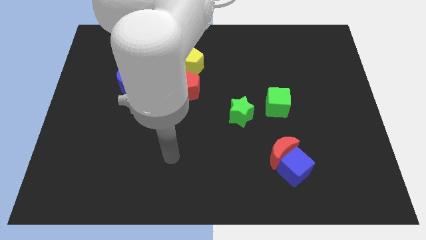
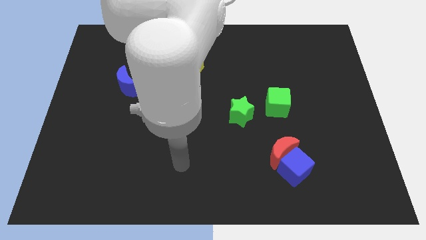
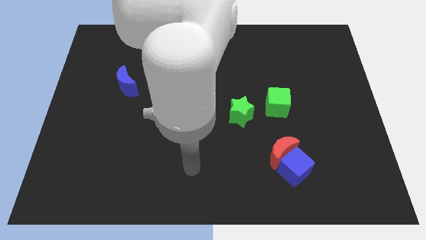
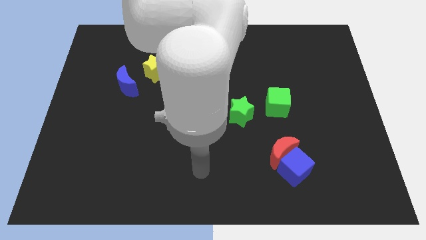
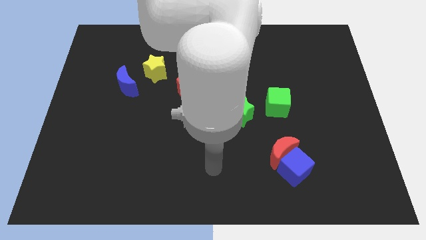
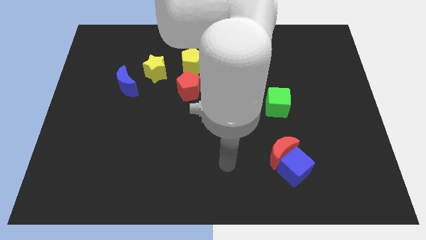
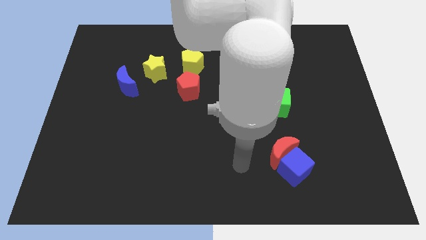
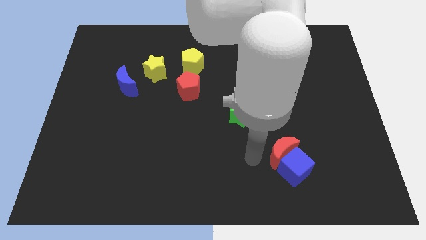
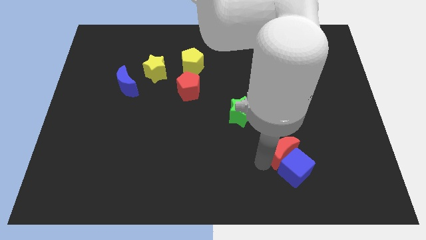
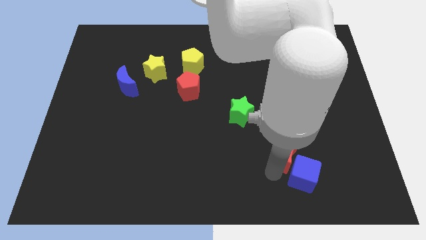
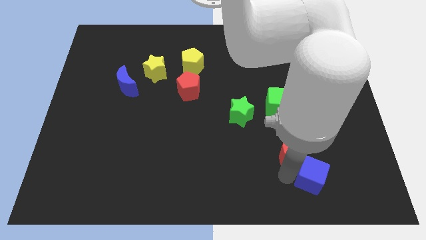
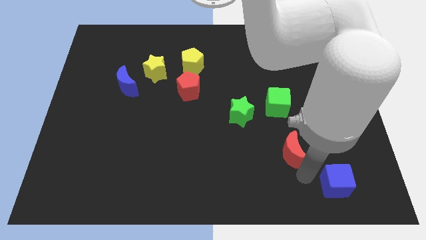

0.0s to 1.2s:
pull the red moon apart from the blue cube

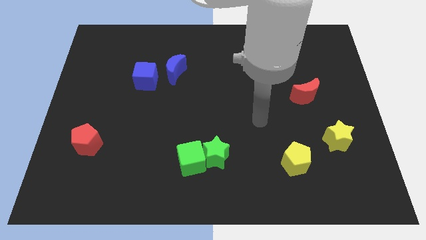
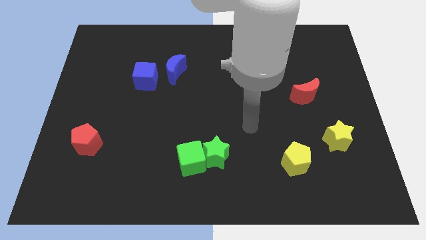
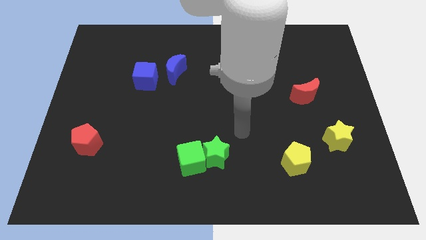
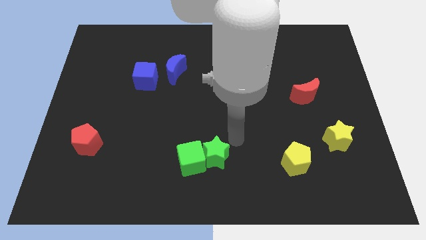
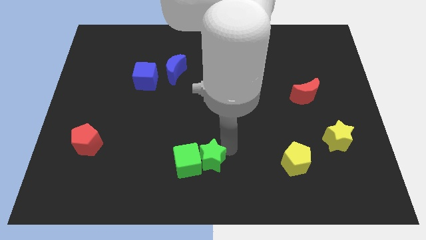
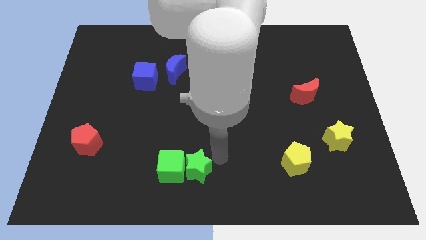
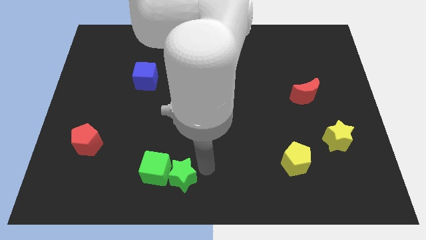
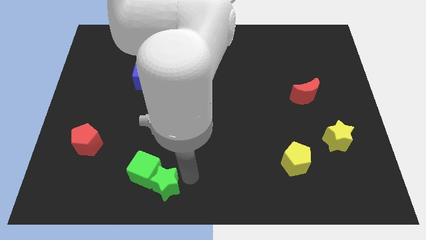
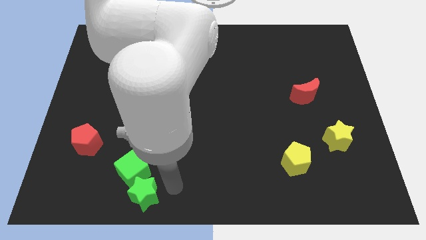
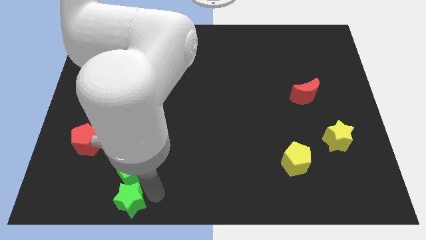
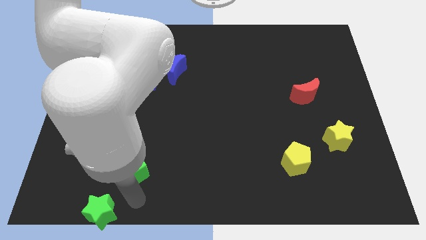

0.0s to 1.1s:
separate the green cube from the green star

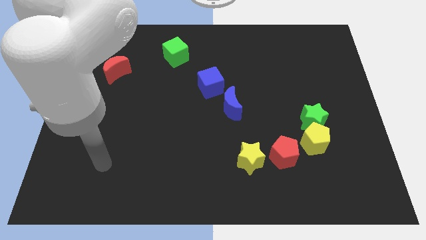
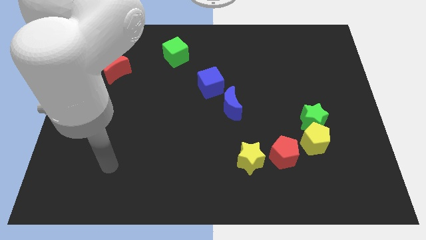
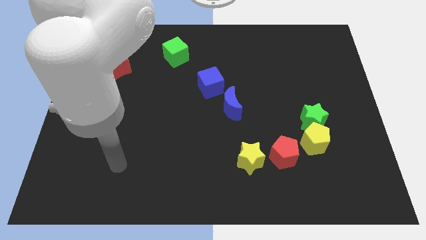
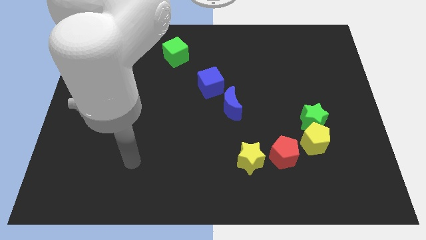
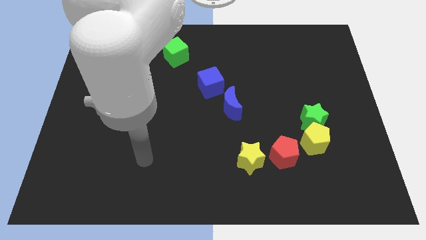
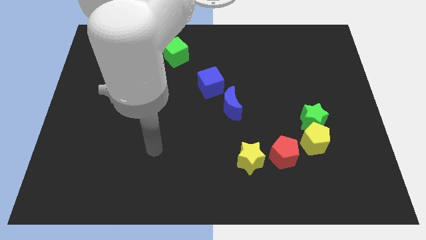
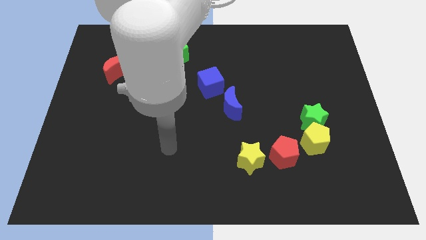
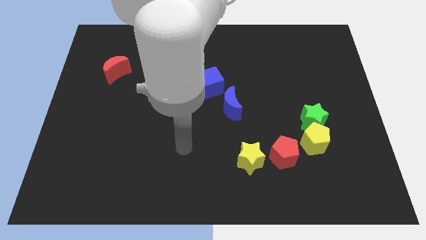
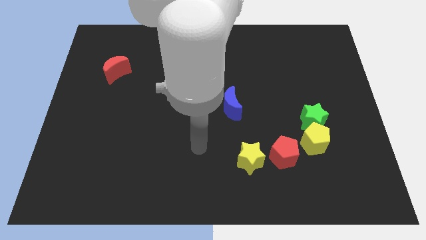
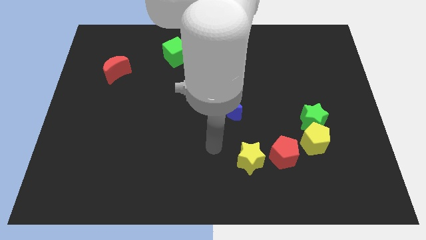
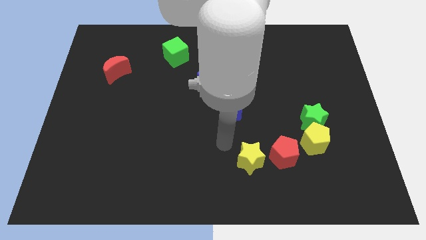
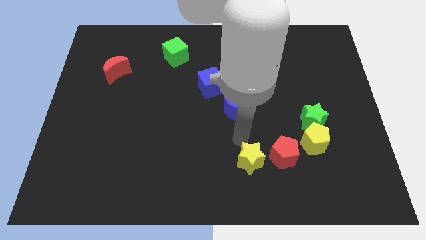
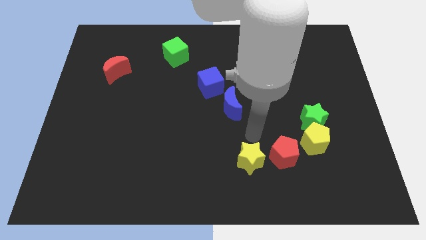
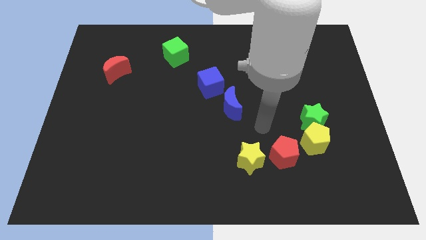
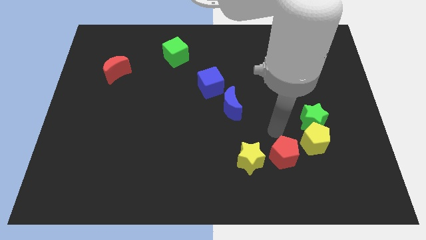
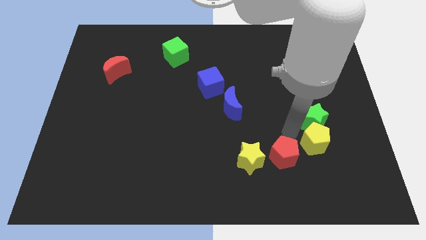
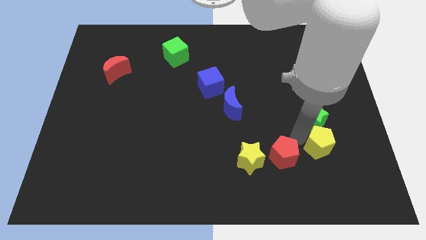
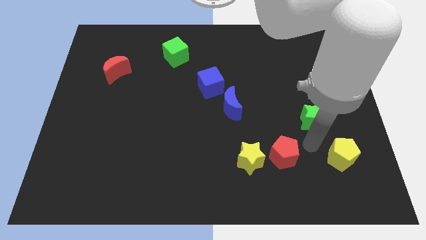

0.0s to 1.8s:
pull the green star apart from the yellow pentagon

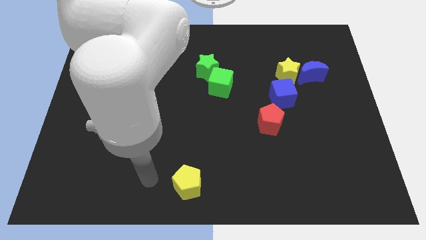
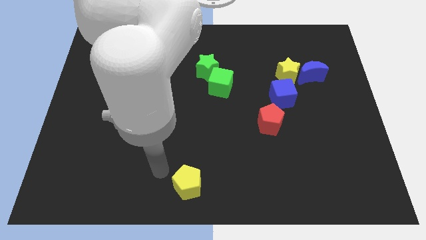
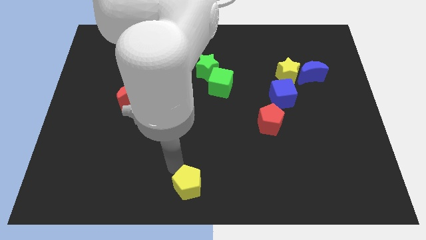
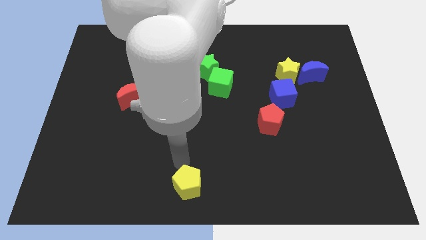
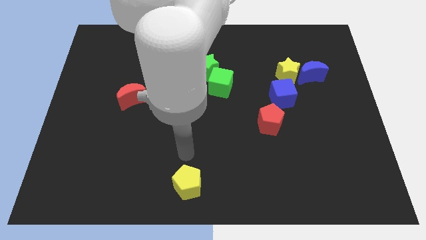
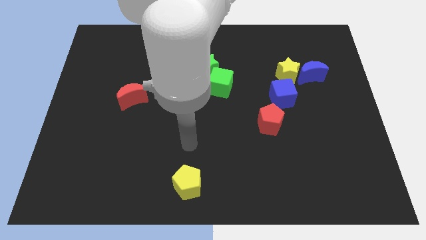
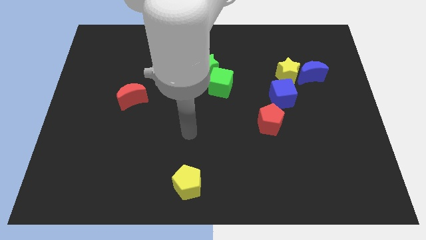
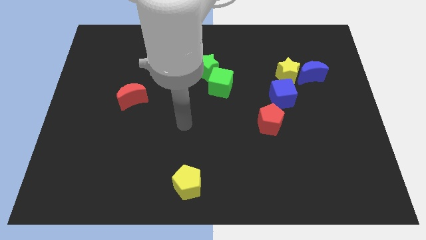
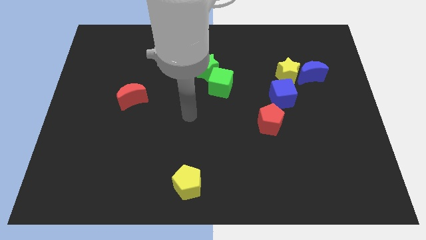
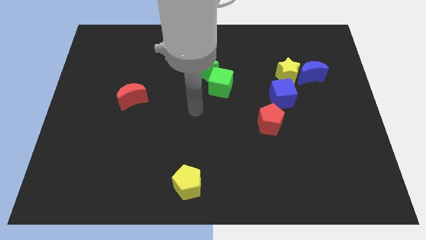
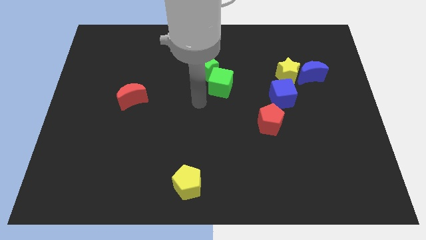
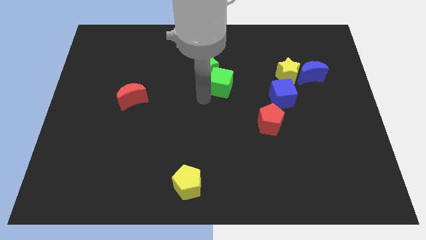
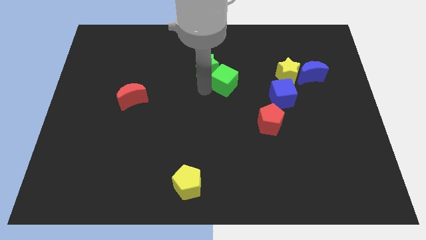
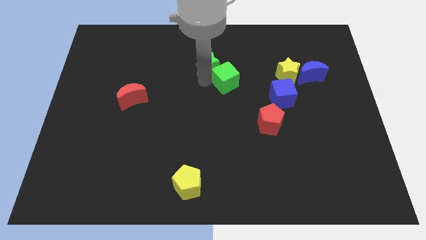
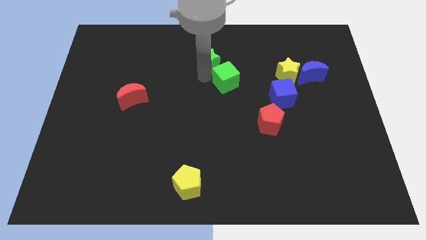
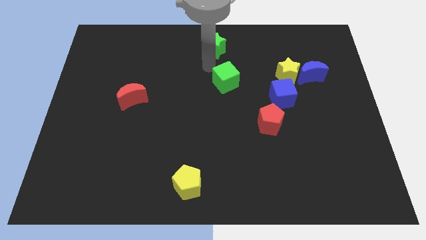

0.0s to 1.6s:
pull the green cube apart from the green star

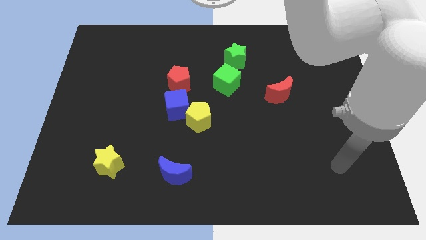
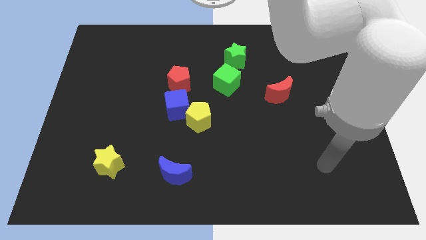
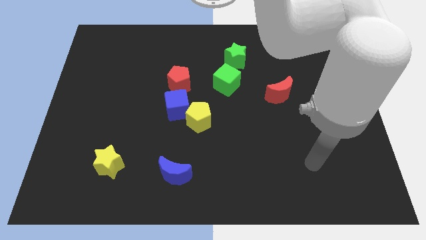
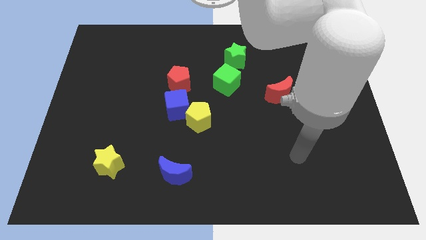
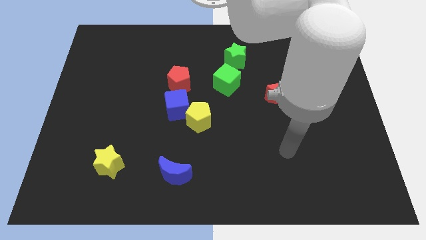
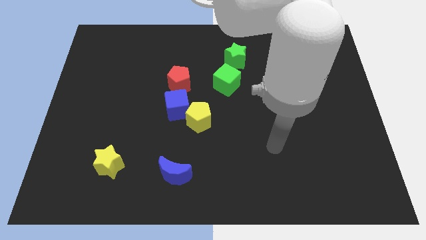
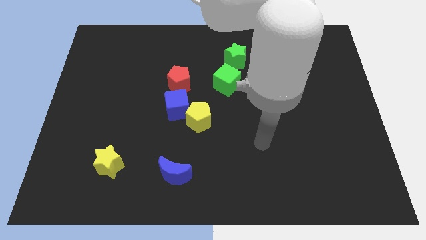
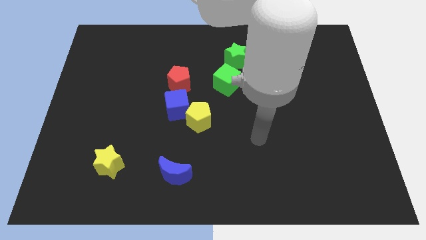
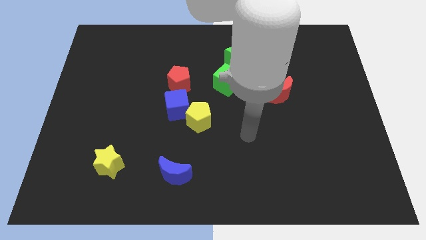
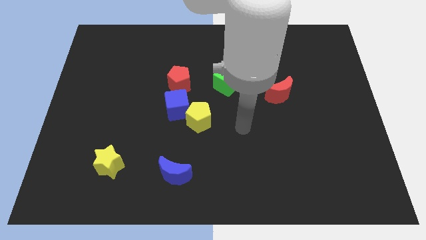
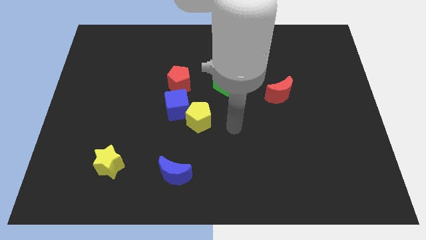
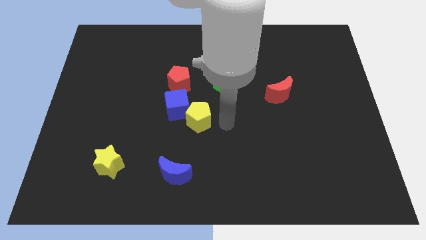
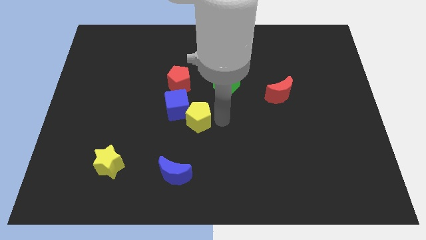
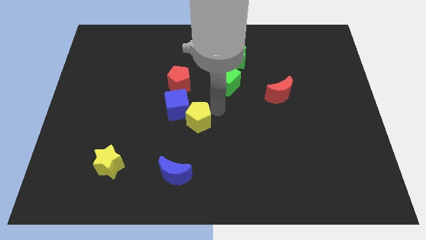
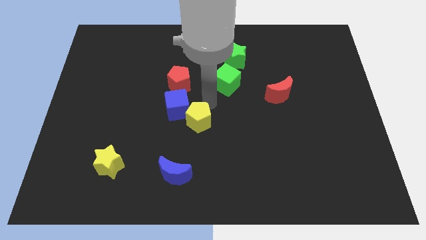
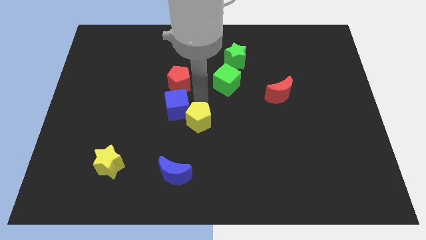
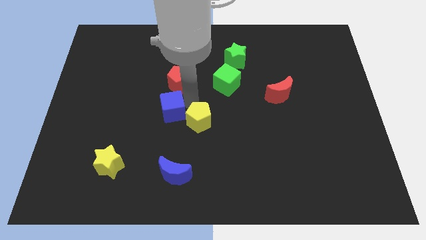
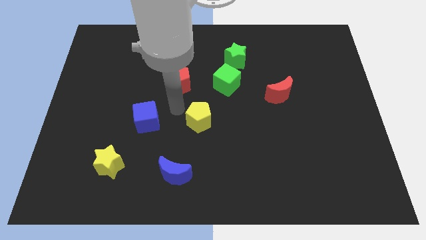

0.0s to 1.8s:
pull the yellow pentagon apart from the blue cube

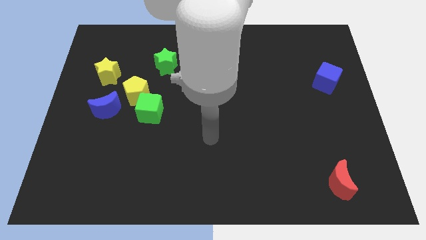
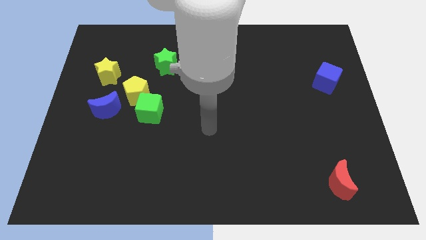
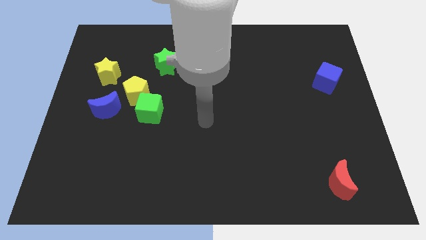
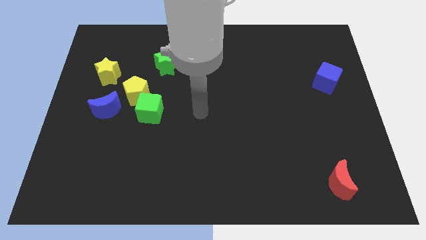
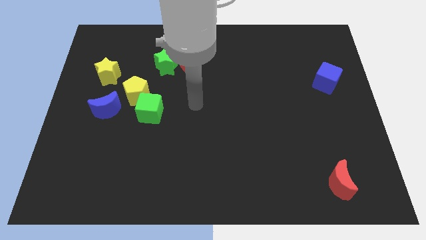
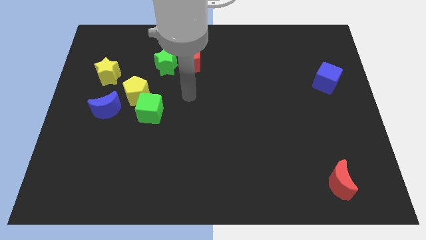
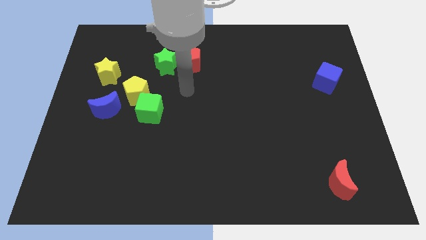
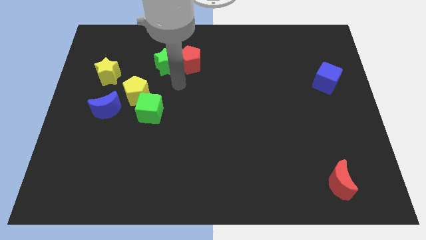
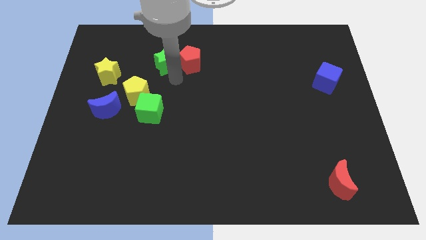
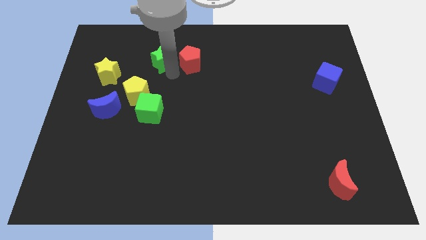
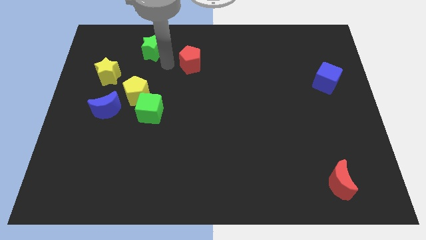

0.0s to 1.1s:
move the red pentagon away from the green star

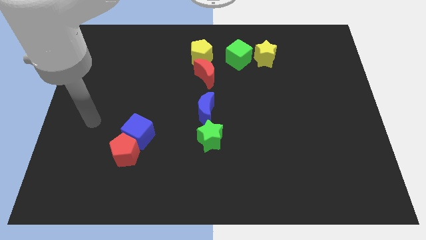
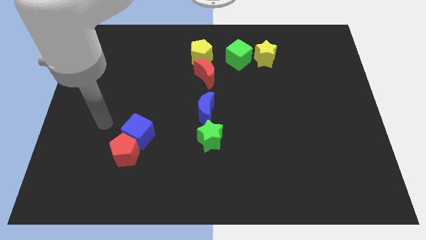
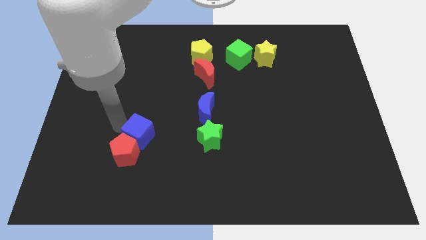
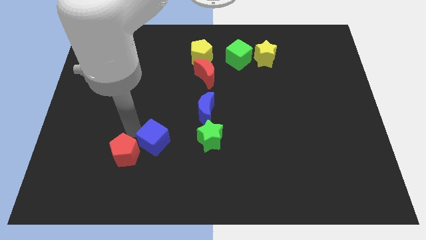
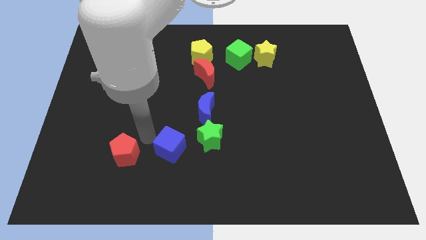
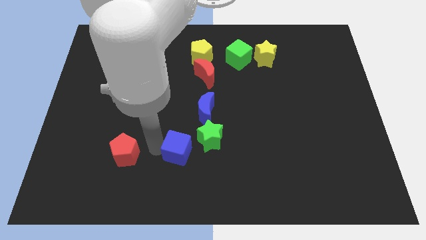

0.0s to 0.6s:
separate the red pentagon from the blue cube

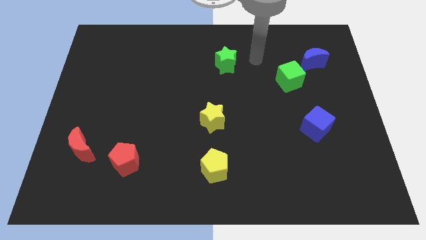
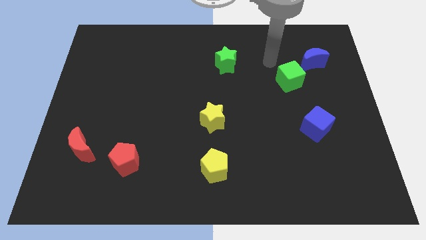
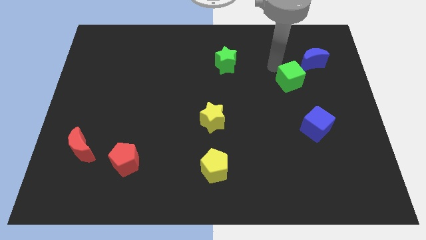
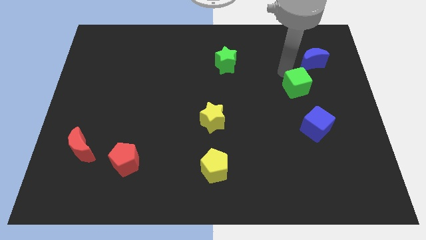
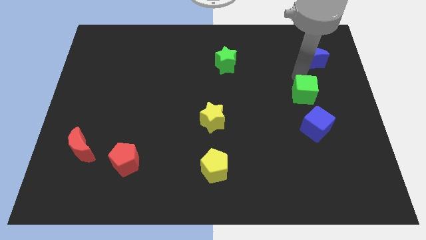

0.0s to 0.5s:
separate the blue moon from the green cube
